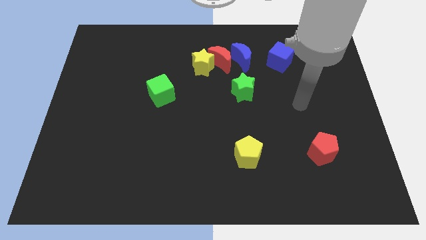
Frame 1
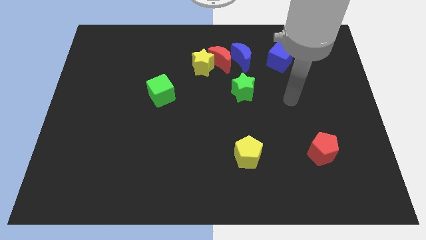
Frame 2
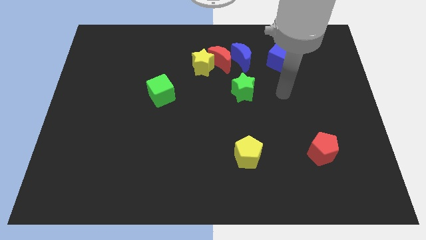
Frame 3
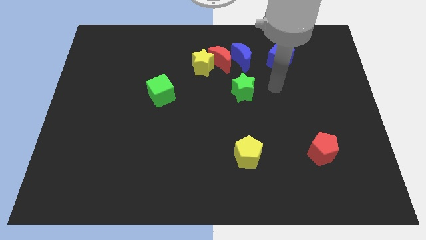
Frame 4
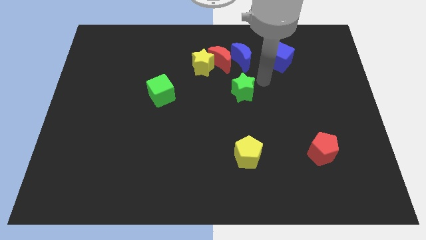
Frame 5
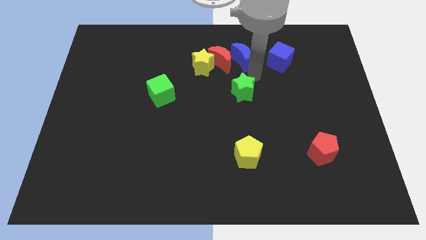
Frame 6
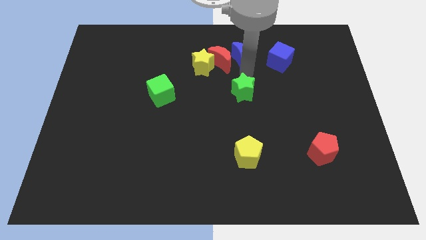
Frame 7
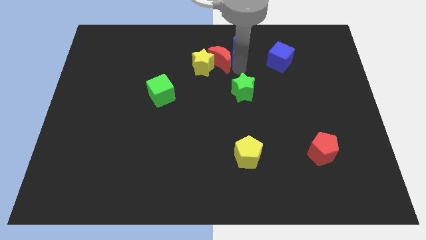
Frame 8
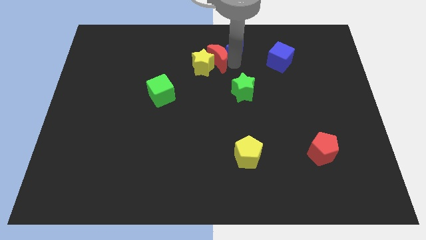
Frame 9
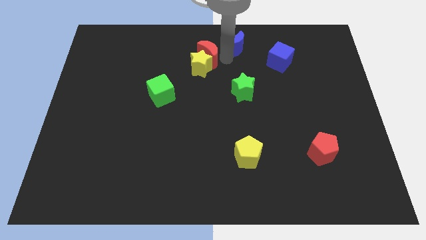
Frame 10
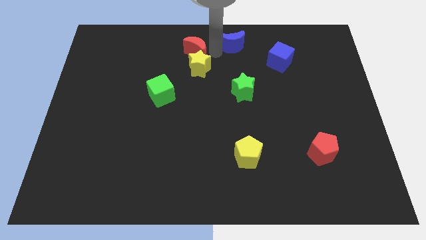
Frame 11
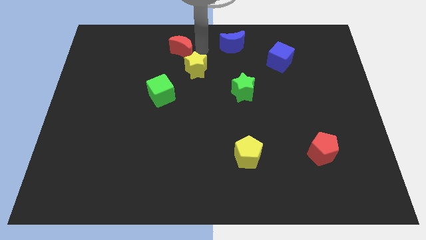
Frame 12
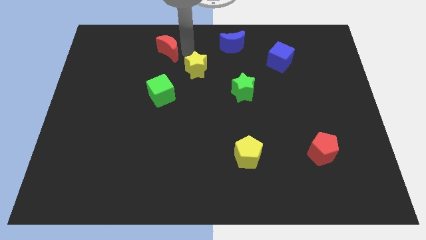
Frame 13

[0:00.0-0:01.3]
pull the yellow star apart from the red moon

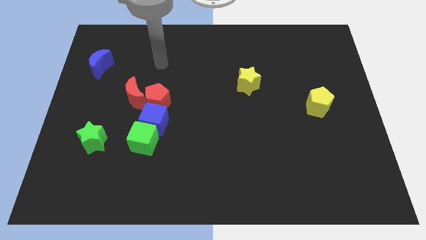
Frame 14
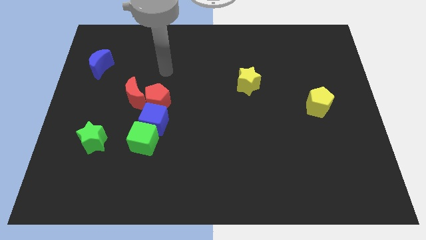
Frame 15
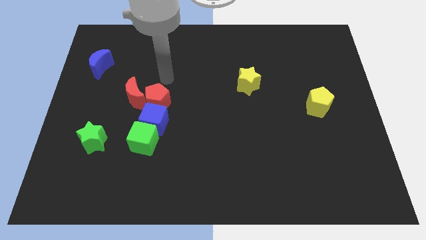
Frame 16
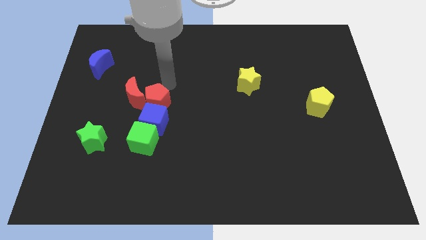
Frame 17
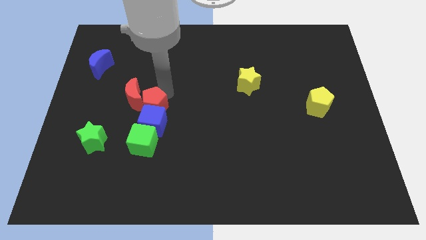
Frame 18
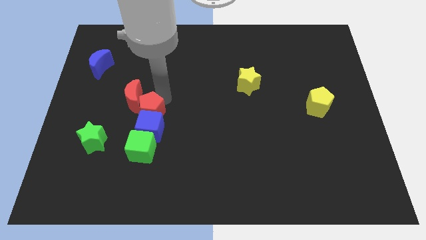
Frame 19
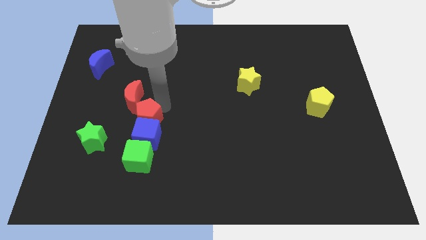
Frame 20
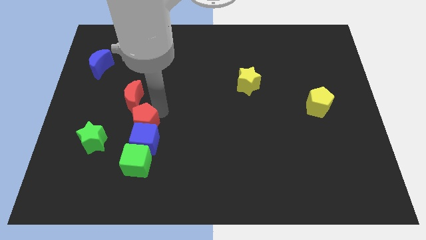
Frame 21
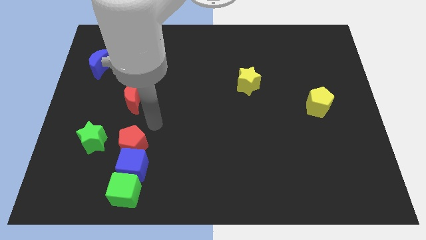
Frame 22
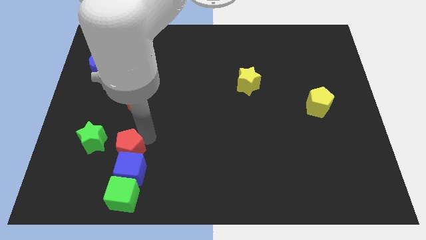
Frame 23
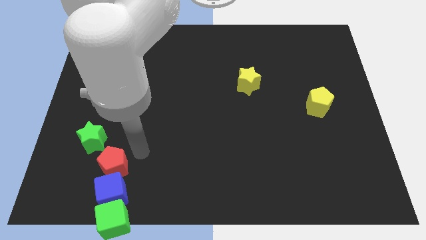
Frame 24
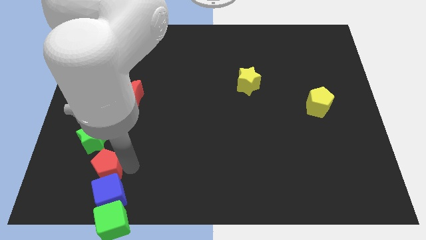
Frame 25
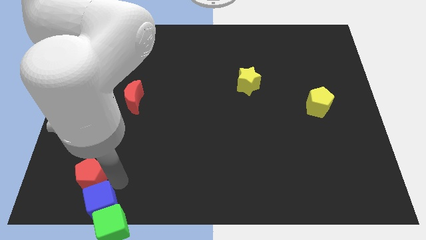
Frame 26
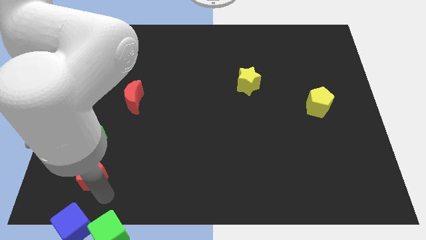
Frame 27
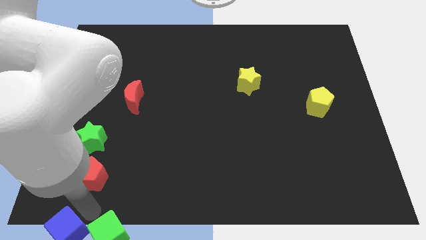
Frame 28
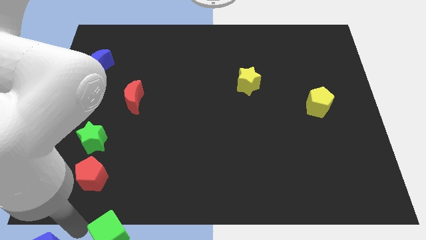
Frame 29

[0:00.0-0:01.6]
separate the green cube from the blue cube

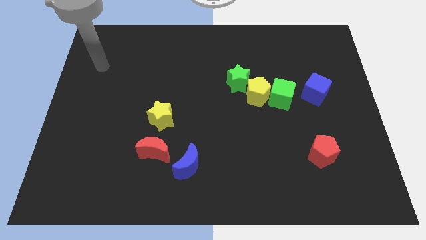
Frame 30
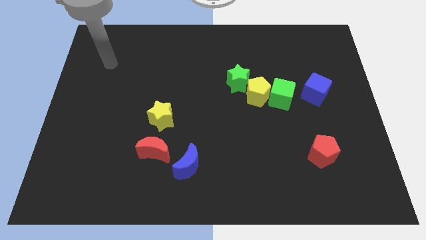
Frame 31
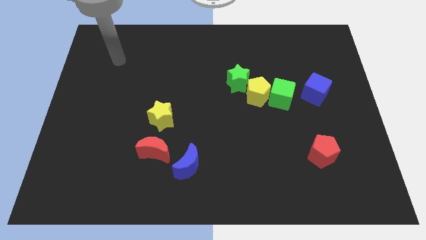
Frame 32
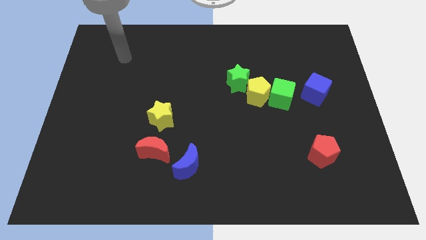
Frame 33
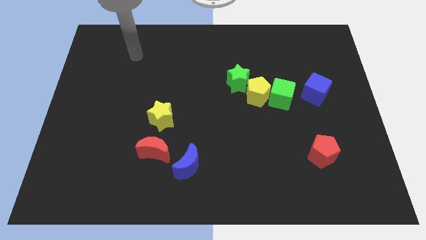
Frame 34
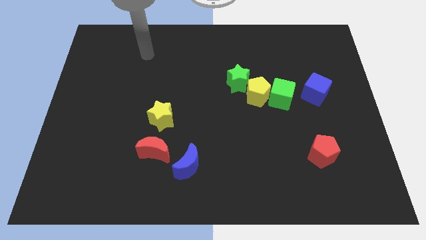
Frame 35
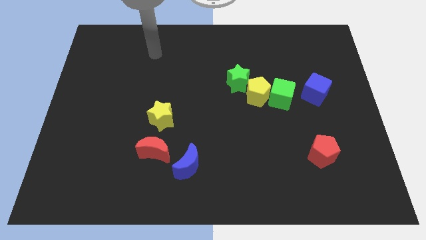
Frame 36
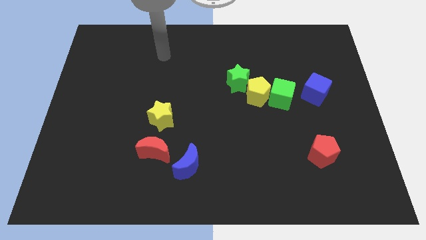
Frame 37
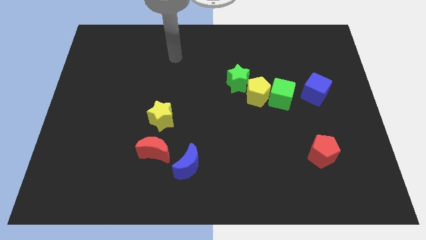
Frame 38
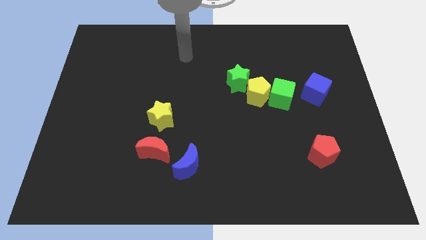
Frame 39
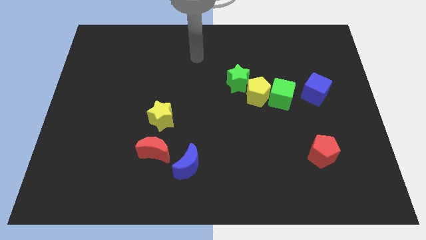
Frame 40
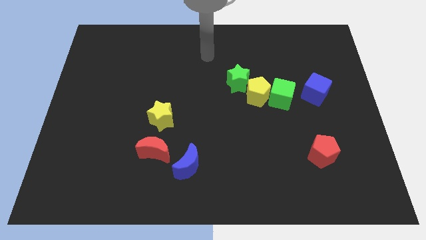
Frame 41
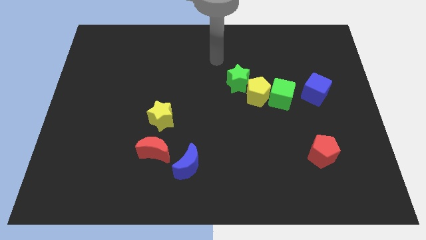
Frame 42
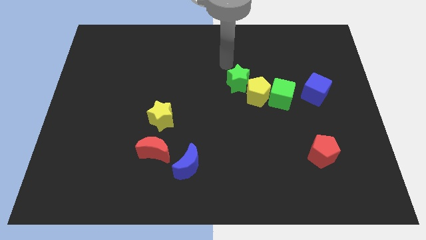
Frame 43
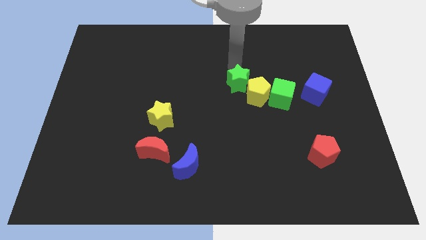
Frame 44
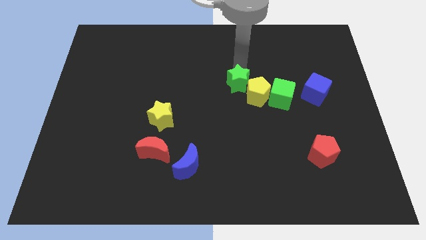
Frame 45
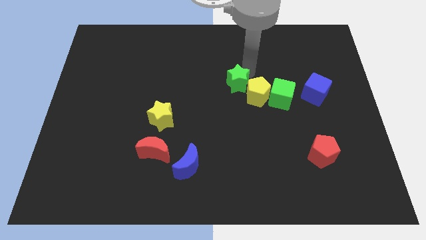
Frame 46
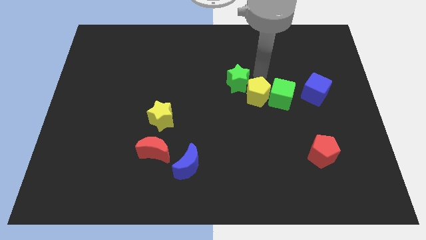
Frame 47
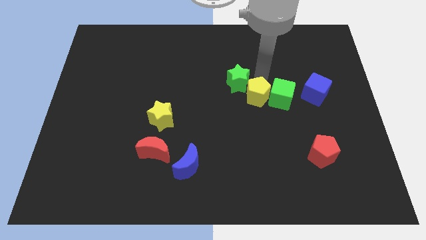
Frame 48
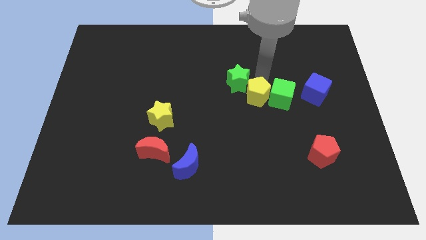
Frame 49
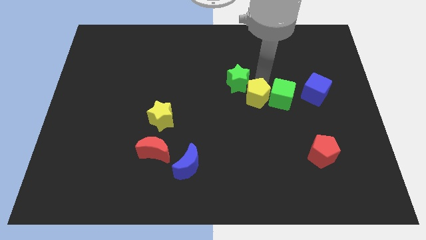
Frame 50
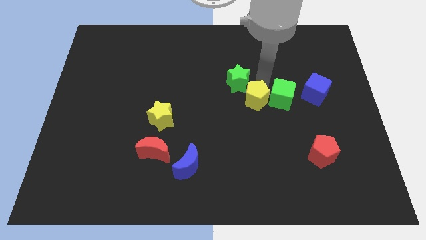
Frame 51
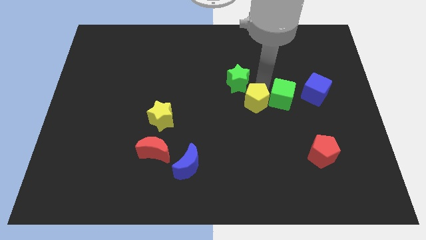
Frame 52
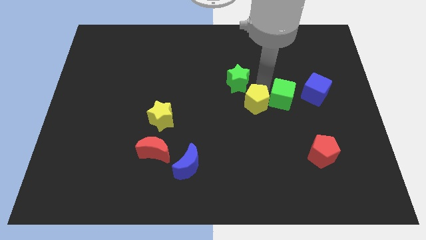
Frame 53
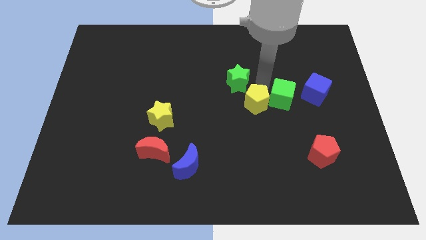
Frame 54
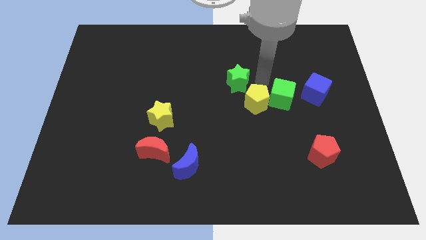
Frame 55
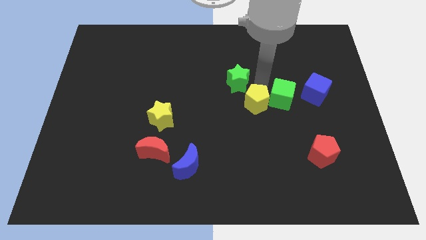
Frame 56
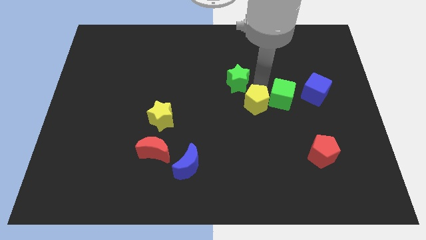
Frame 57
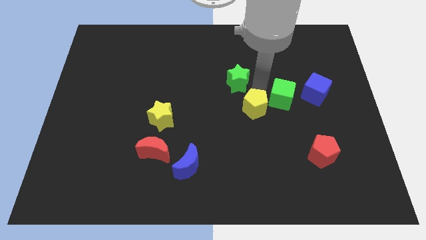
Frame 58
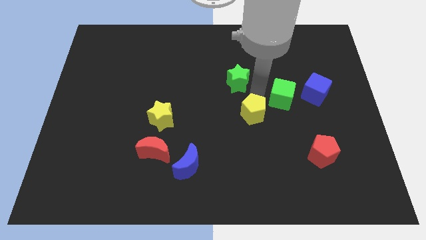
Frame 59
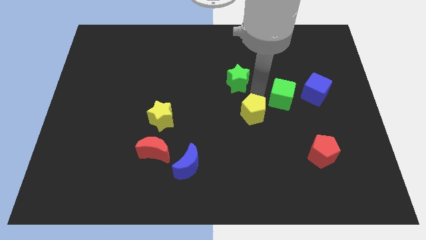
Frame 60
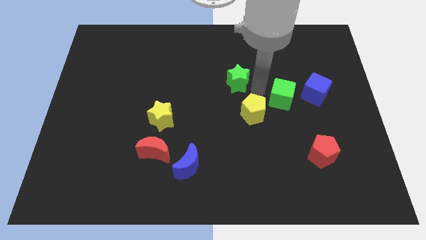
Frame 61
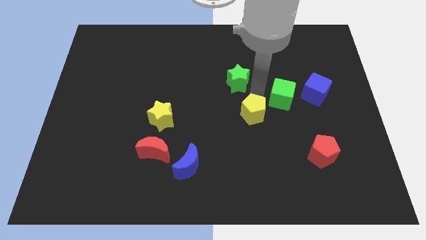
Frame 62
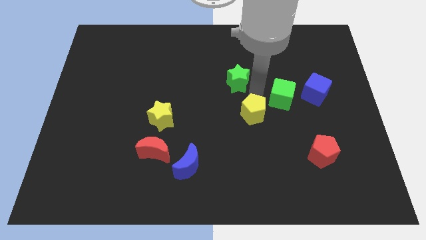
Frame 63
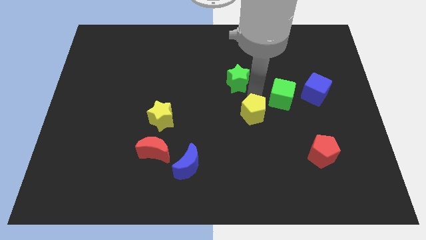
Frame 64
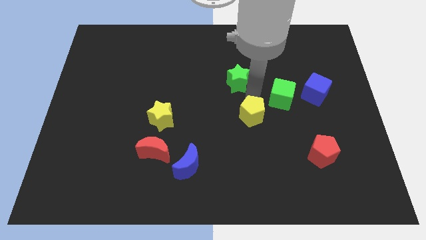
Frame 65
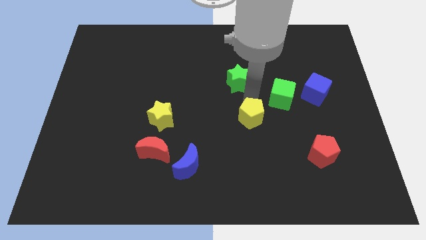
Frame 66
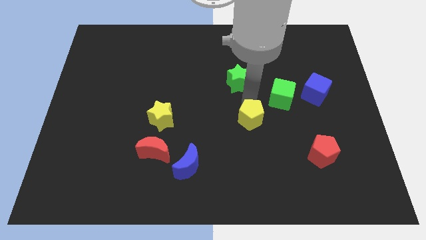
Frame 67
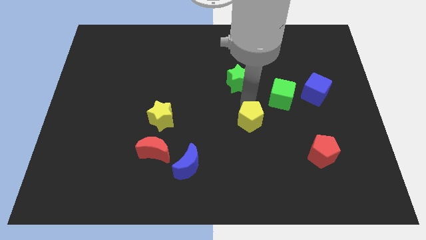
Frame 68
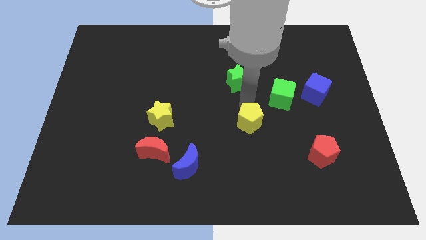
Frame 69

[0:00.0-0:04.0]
separate the yellow pentagon from the green cube and green star

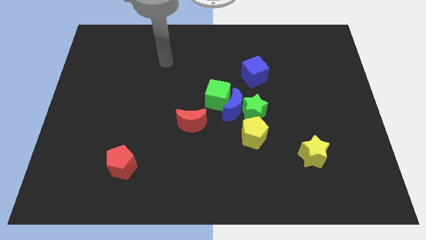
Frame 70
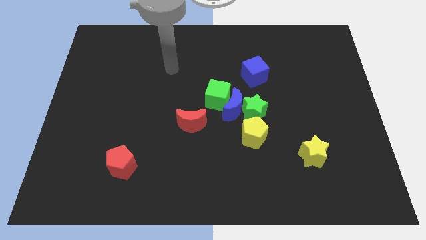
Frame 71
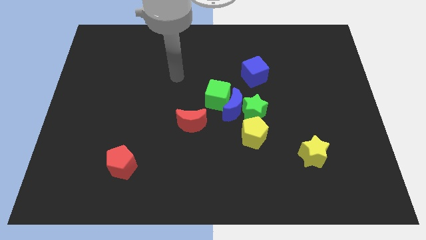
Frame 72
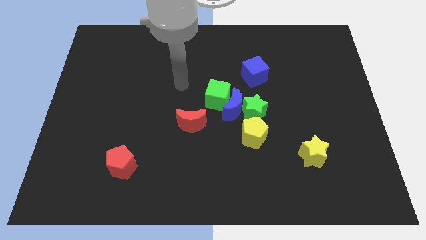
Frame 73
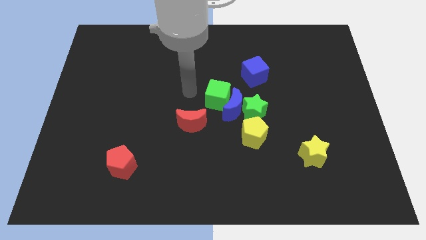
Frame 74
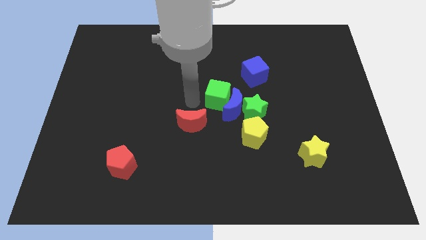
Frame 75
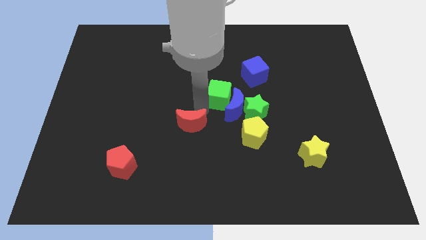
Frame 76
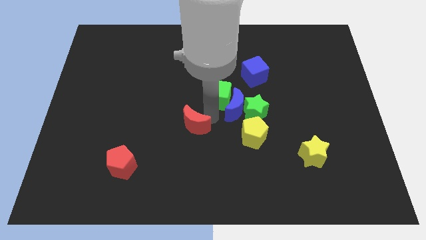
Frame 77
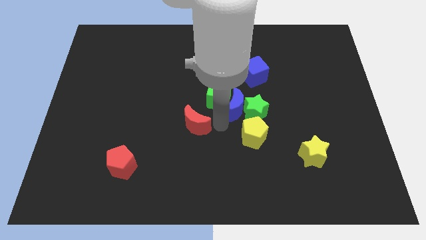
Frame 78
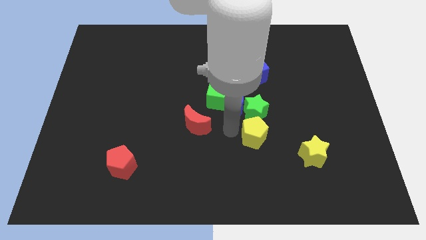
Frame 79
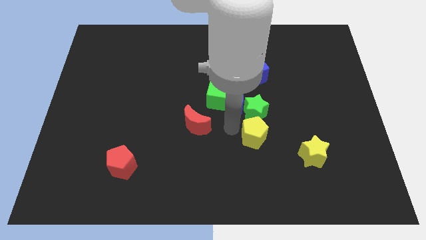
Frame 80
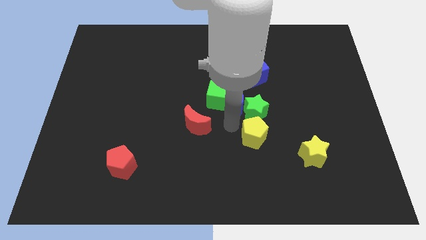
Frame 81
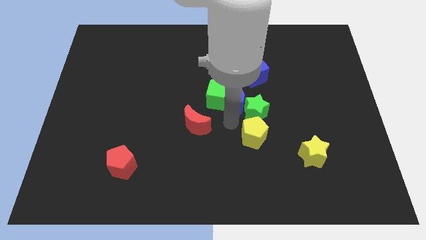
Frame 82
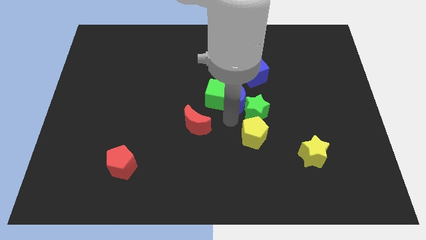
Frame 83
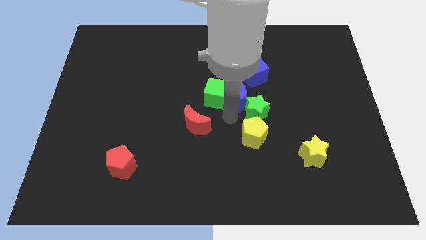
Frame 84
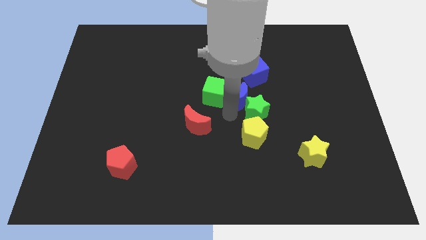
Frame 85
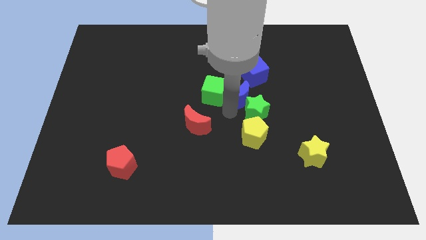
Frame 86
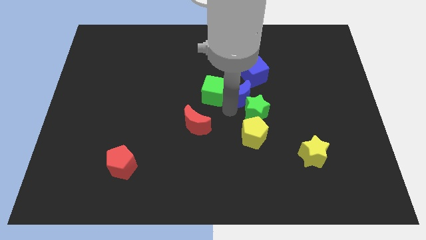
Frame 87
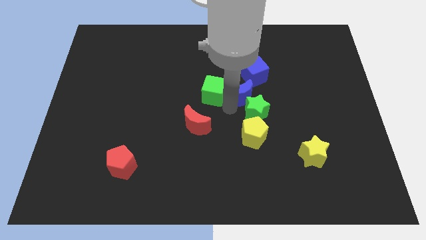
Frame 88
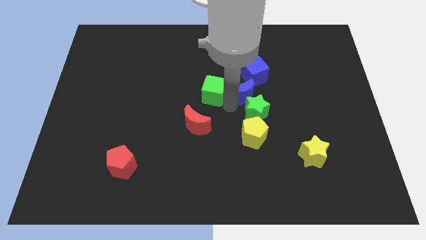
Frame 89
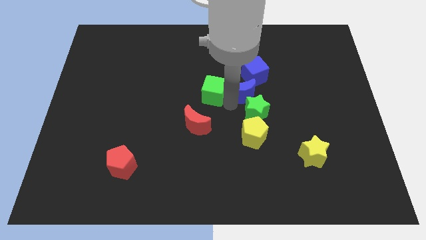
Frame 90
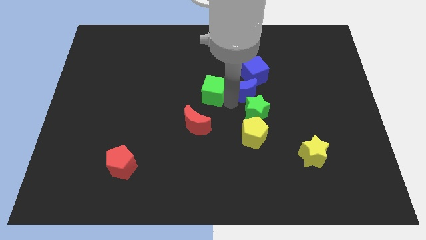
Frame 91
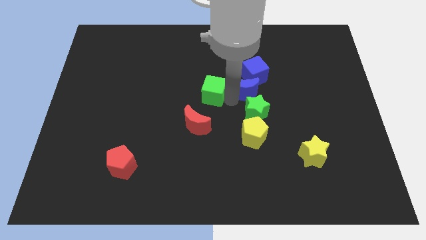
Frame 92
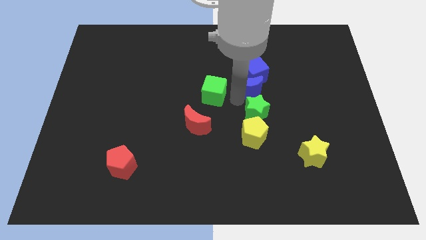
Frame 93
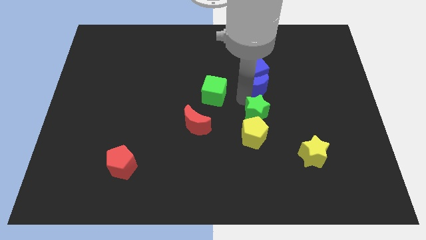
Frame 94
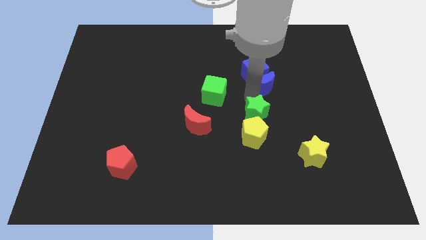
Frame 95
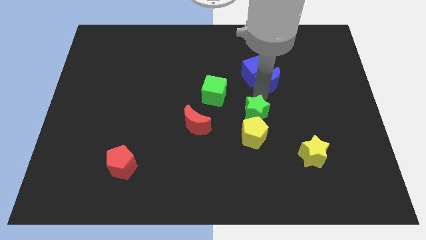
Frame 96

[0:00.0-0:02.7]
move the blue moon away from the clump

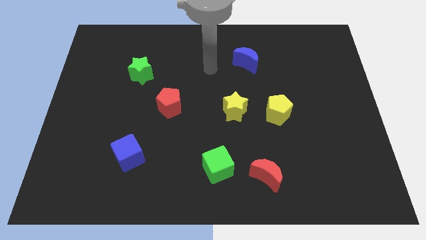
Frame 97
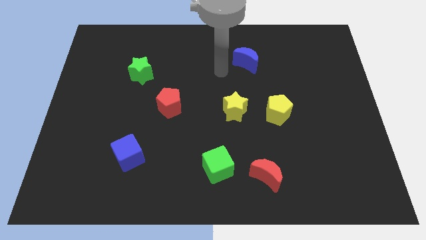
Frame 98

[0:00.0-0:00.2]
move the yellow star away from the yellow pentagon
